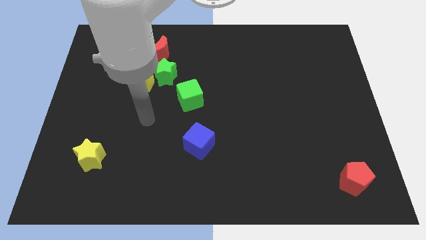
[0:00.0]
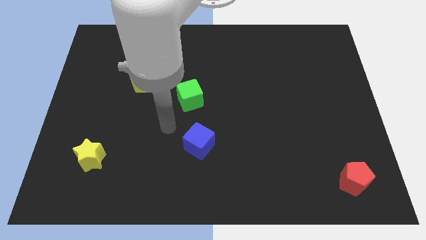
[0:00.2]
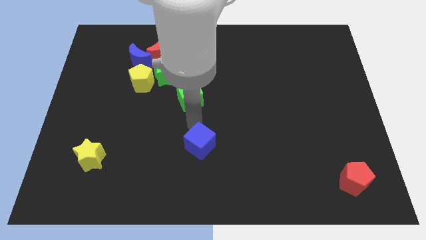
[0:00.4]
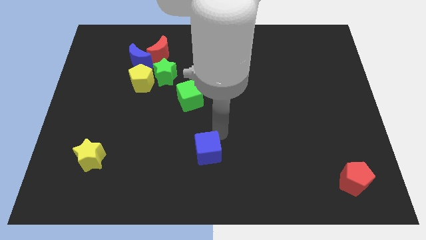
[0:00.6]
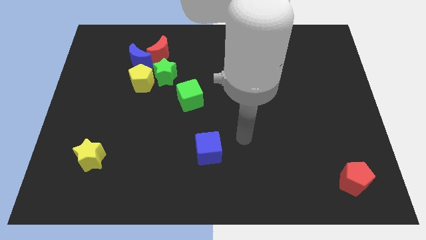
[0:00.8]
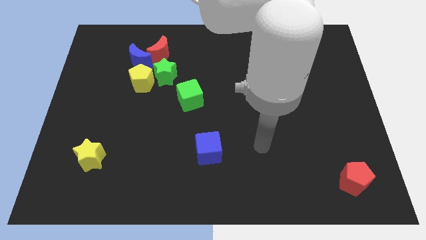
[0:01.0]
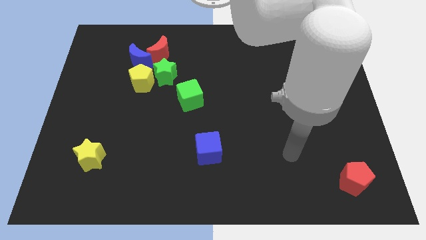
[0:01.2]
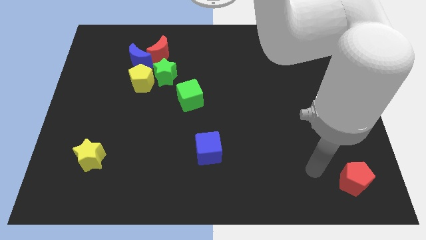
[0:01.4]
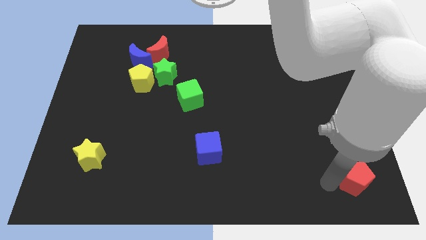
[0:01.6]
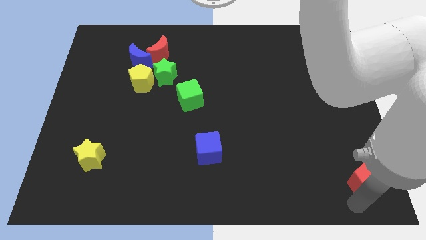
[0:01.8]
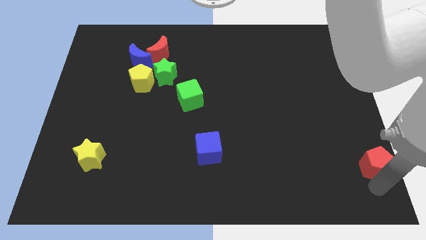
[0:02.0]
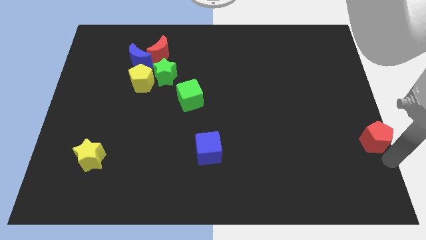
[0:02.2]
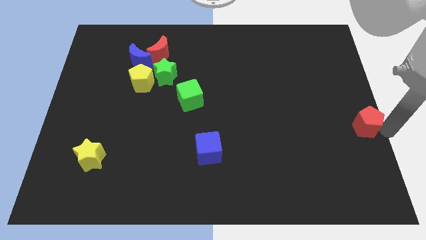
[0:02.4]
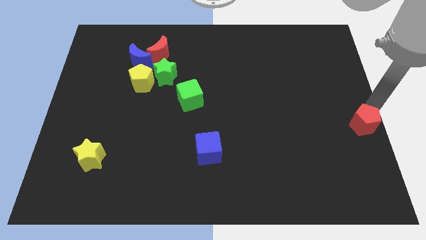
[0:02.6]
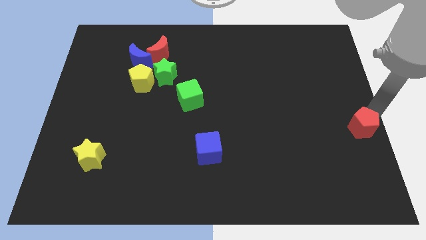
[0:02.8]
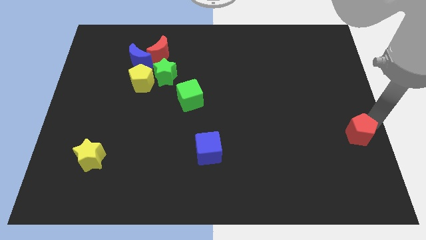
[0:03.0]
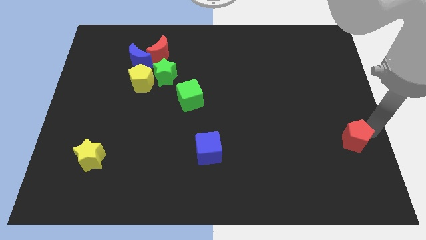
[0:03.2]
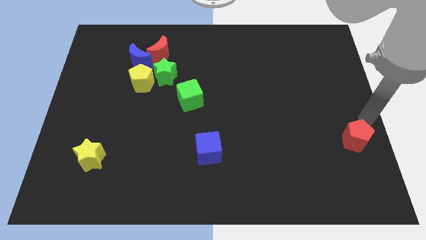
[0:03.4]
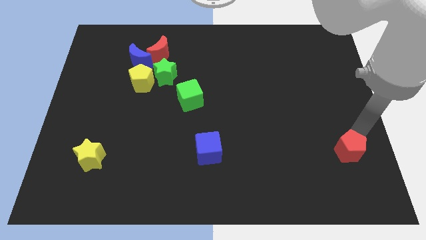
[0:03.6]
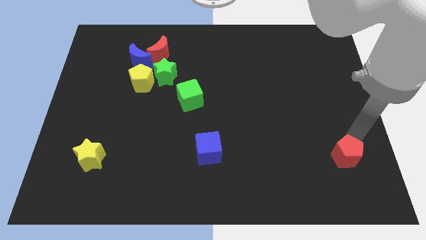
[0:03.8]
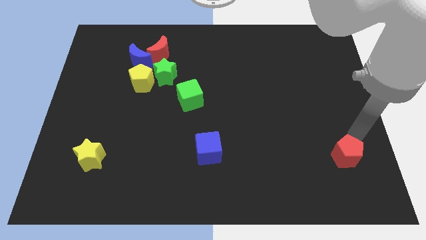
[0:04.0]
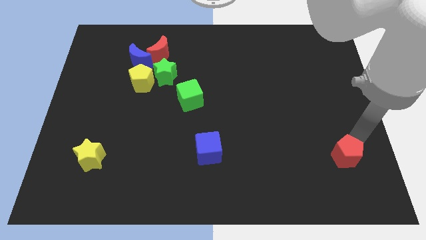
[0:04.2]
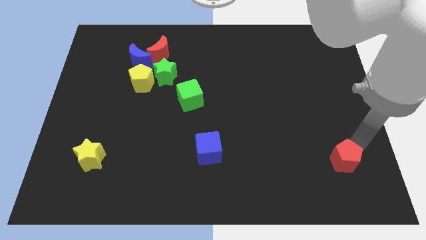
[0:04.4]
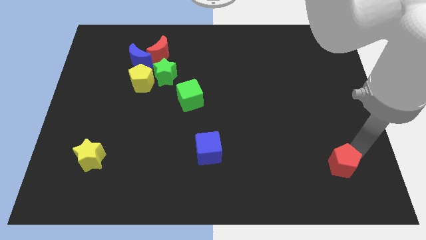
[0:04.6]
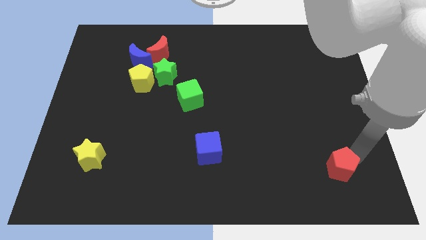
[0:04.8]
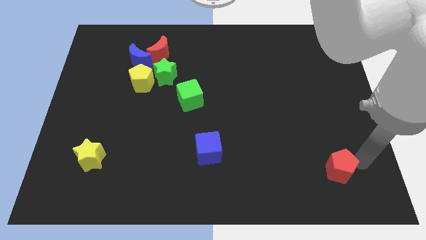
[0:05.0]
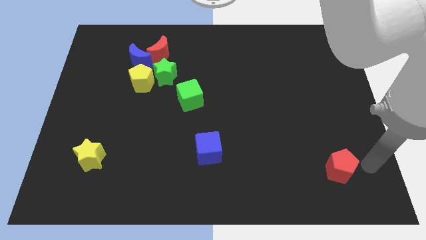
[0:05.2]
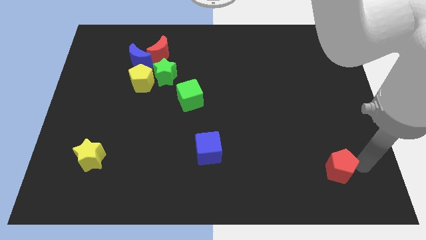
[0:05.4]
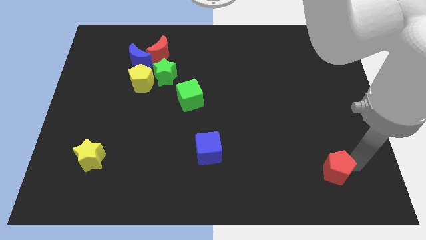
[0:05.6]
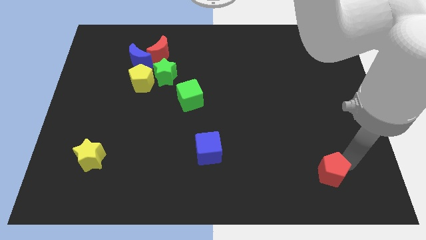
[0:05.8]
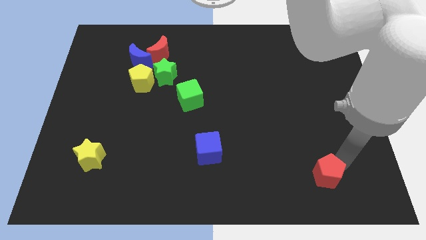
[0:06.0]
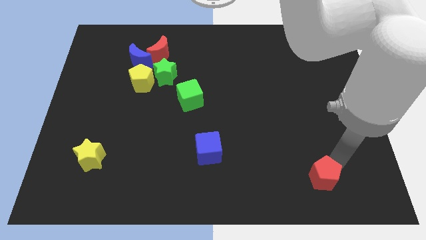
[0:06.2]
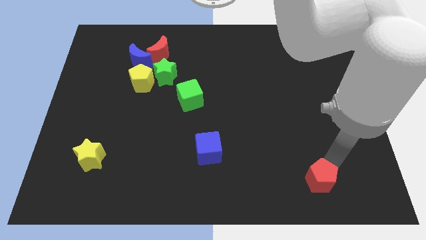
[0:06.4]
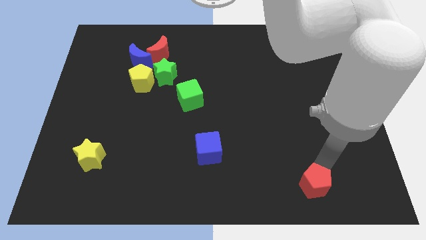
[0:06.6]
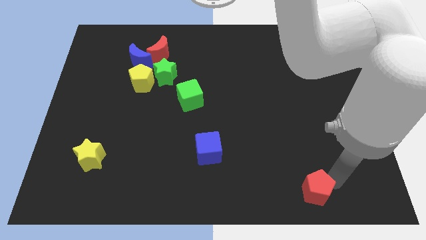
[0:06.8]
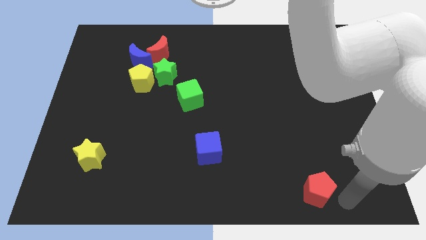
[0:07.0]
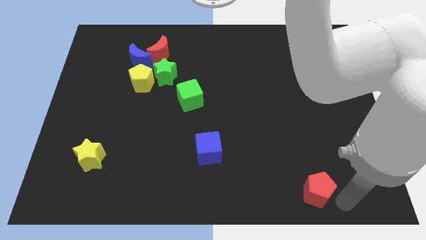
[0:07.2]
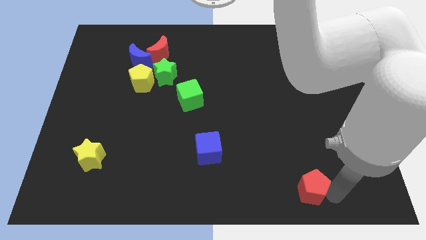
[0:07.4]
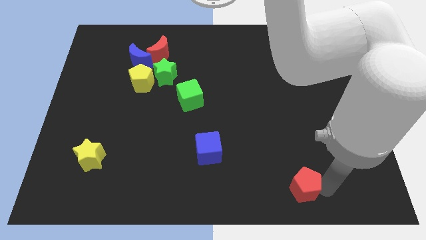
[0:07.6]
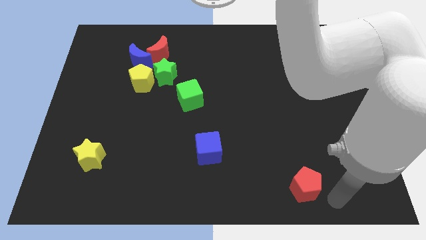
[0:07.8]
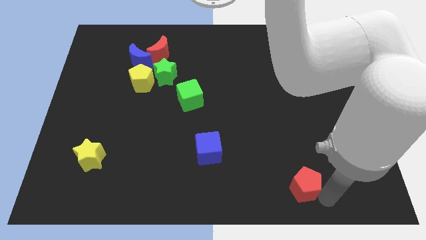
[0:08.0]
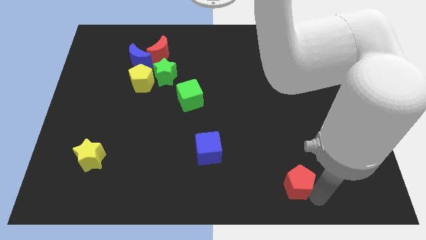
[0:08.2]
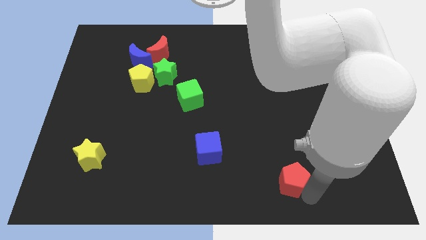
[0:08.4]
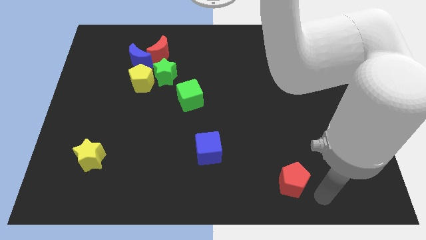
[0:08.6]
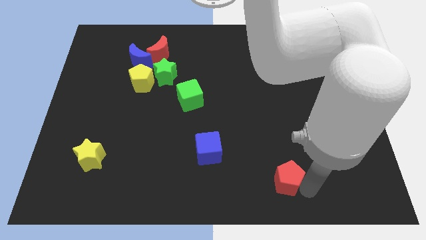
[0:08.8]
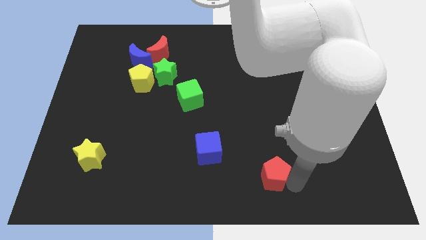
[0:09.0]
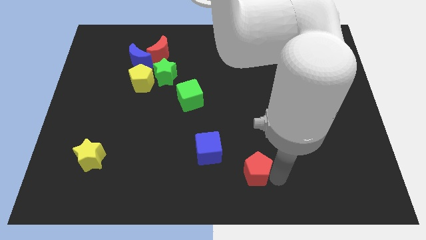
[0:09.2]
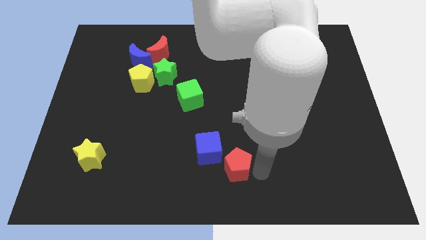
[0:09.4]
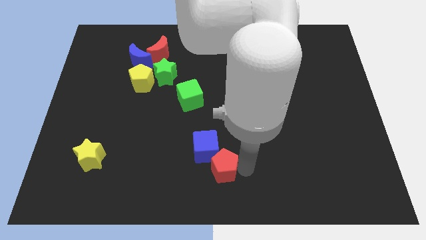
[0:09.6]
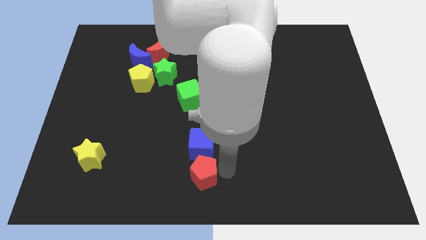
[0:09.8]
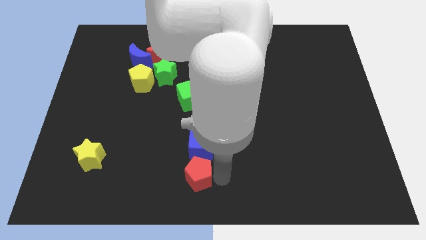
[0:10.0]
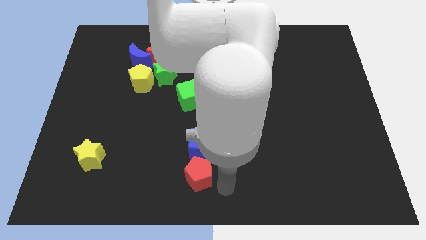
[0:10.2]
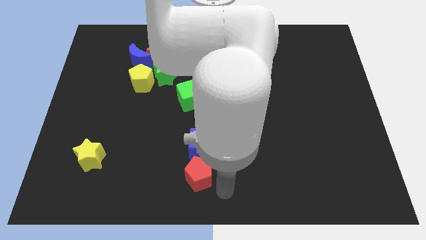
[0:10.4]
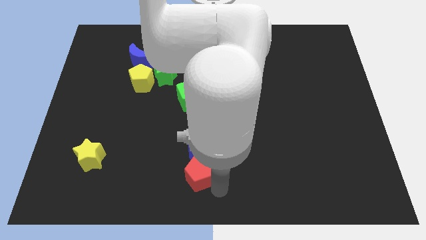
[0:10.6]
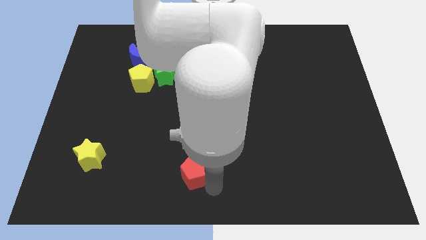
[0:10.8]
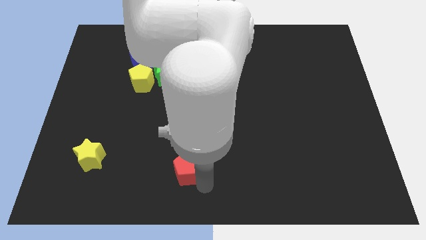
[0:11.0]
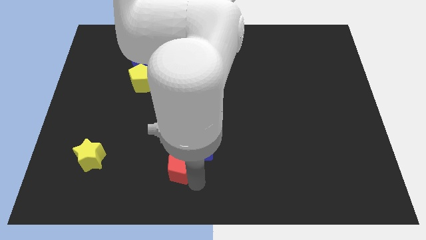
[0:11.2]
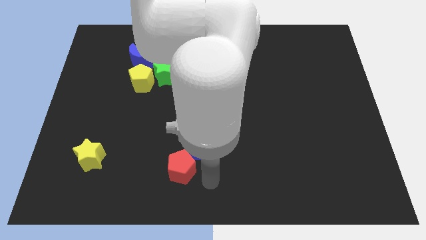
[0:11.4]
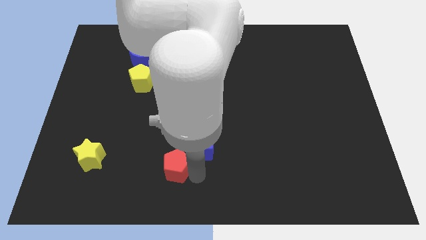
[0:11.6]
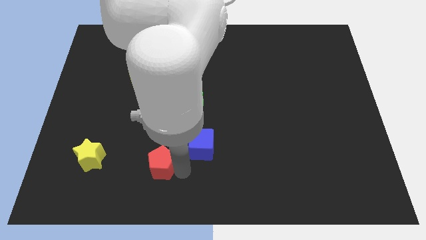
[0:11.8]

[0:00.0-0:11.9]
slide the red pentagon to the right side of the yellow star

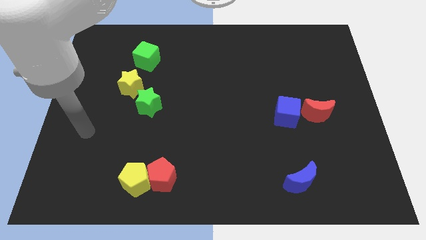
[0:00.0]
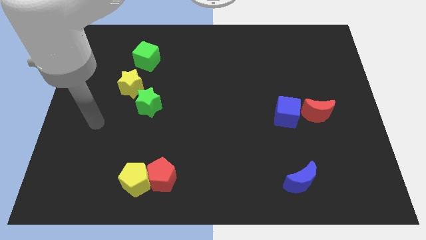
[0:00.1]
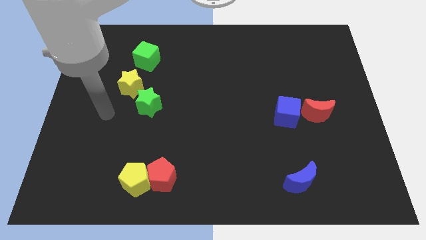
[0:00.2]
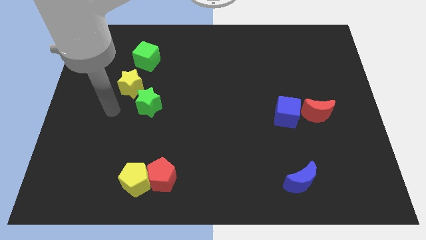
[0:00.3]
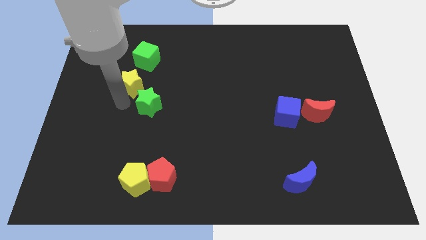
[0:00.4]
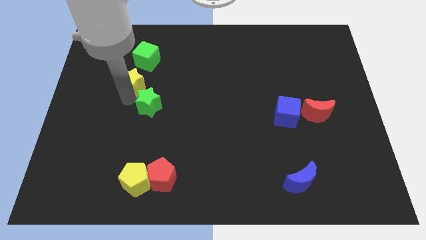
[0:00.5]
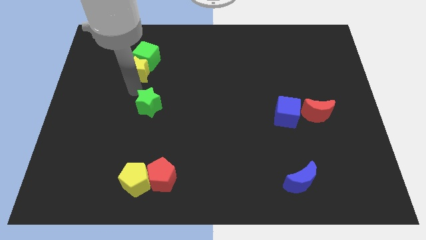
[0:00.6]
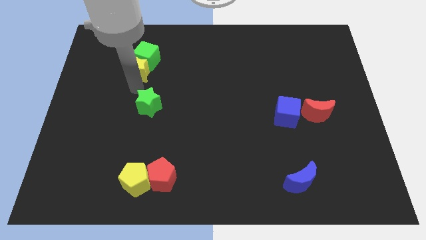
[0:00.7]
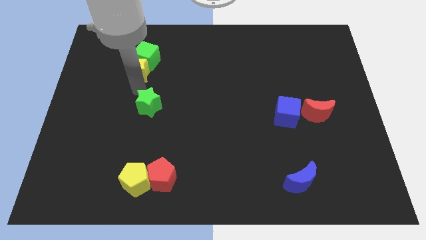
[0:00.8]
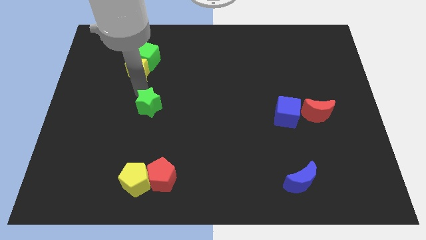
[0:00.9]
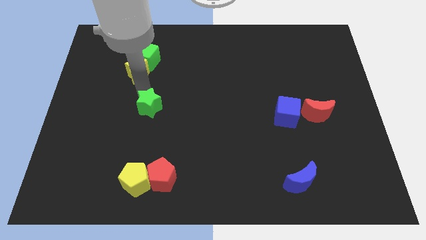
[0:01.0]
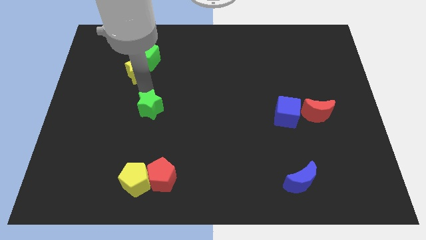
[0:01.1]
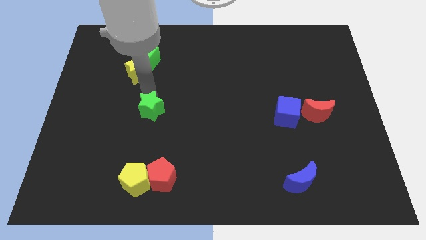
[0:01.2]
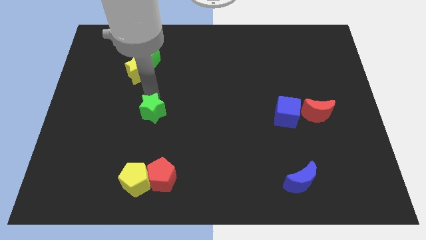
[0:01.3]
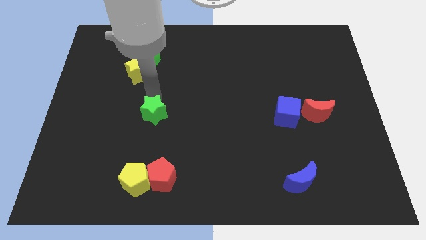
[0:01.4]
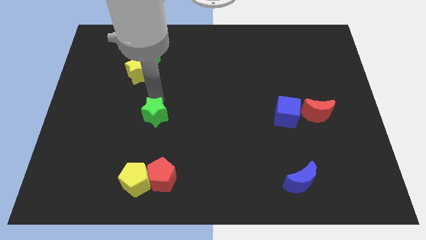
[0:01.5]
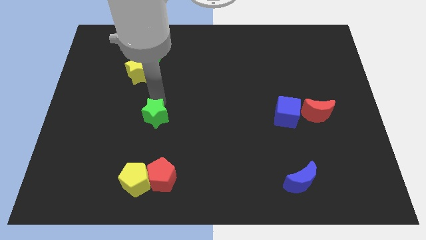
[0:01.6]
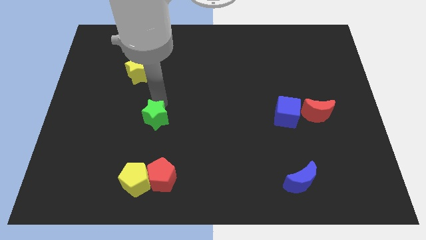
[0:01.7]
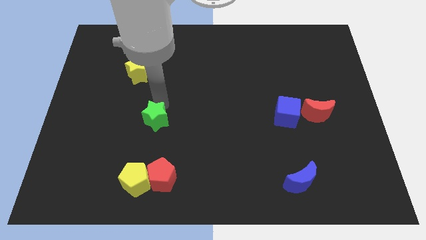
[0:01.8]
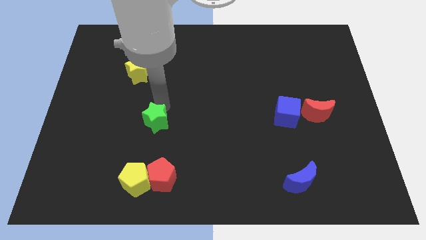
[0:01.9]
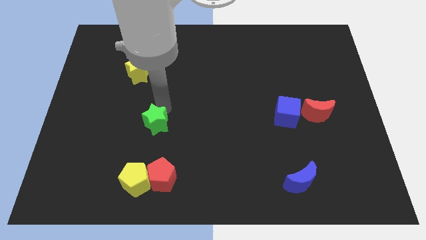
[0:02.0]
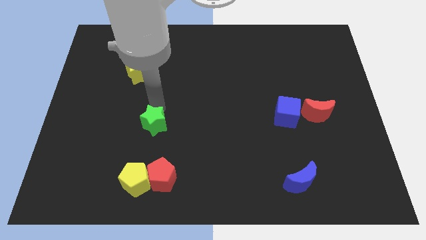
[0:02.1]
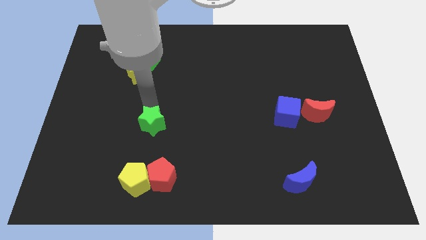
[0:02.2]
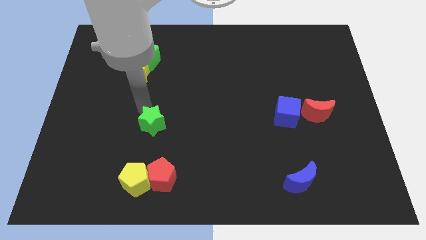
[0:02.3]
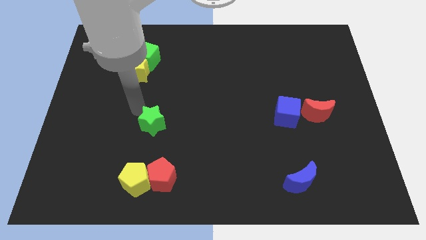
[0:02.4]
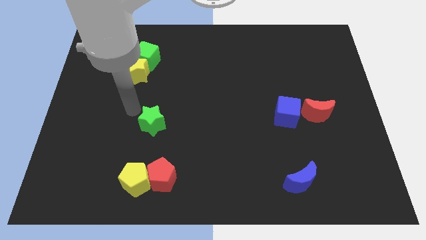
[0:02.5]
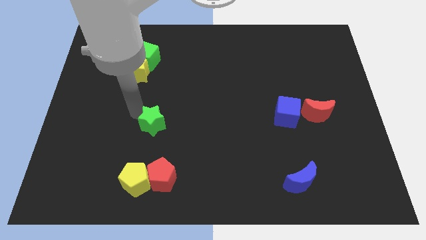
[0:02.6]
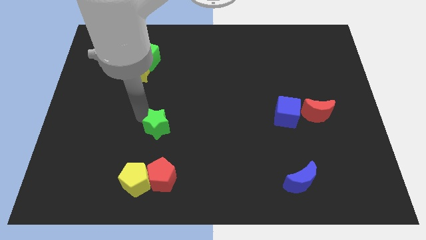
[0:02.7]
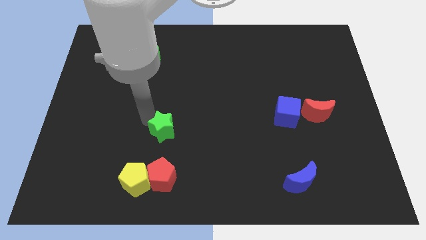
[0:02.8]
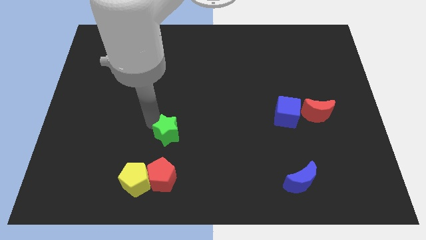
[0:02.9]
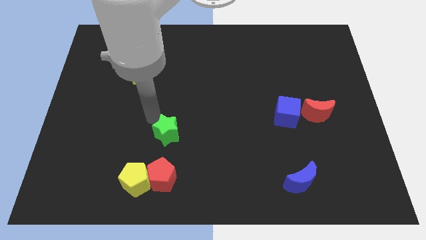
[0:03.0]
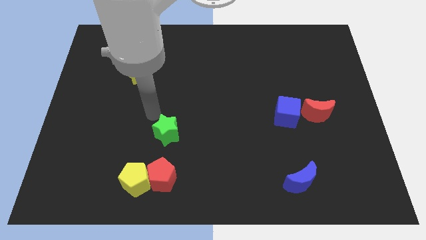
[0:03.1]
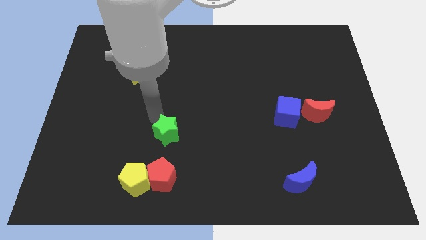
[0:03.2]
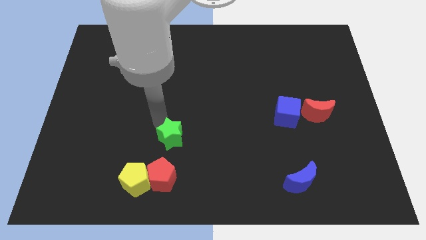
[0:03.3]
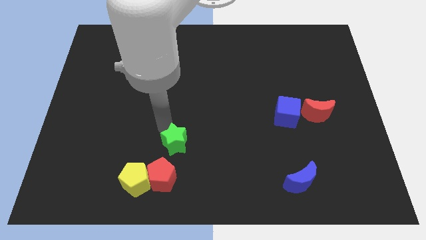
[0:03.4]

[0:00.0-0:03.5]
push the green star to the top right side of the red pentagon
